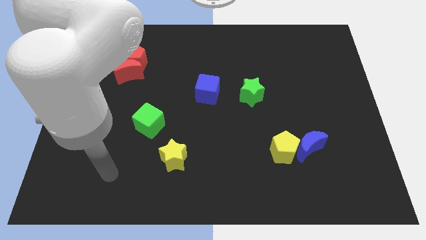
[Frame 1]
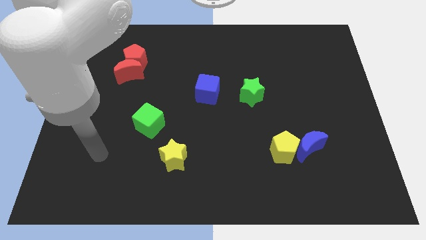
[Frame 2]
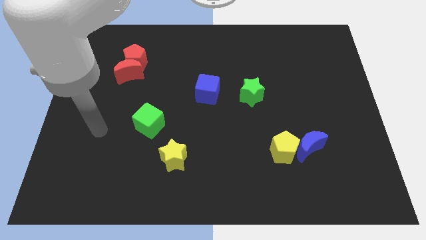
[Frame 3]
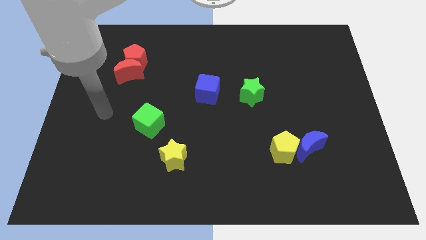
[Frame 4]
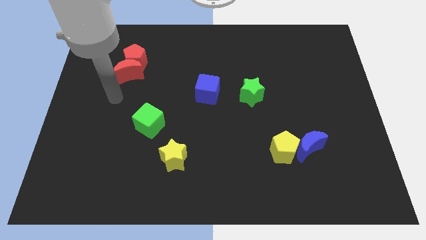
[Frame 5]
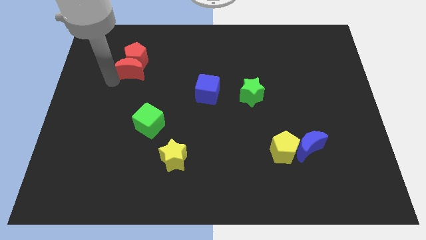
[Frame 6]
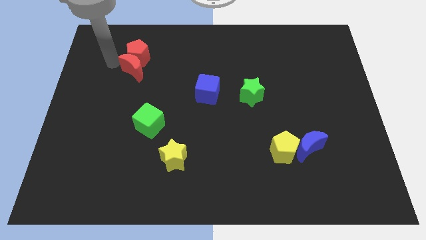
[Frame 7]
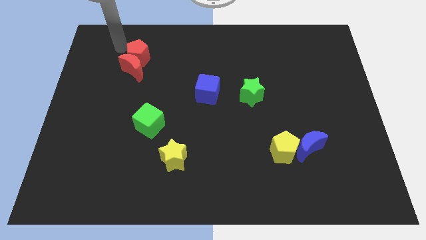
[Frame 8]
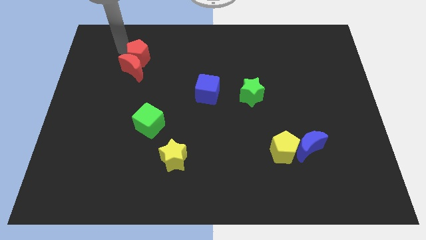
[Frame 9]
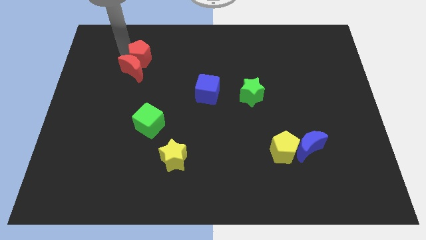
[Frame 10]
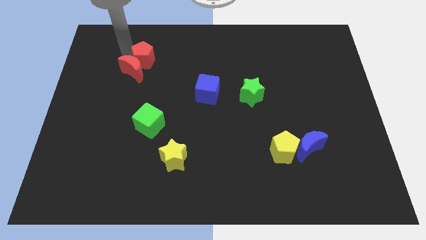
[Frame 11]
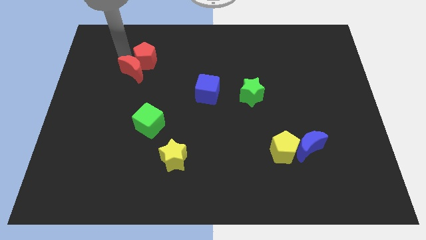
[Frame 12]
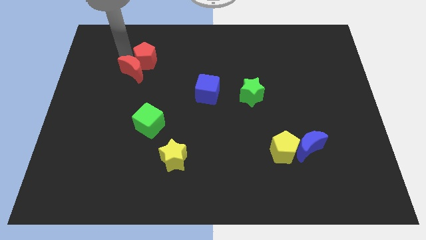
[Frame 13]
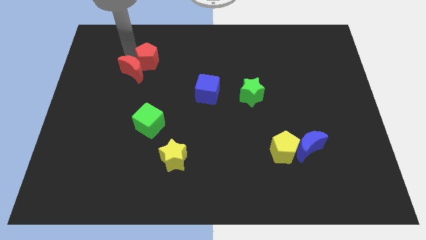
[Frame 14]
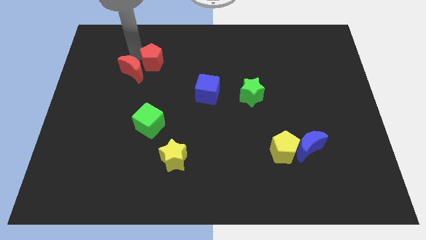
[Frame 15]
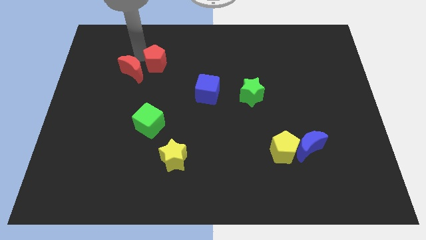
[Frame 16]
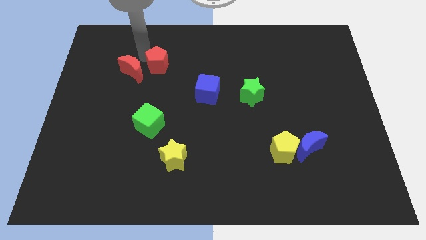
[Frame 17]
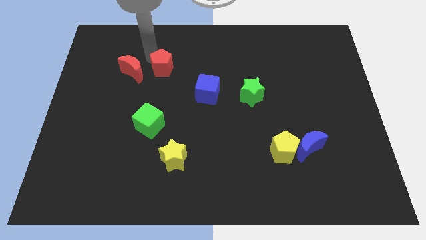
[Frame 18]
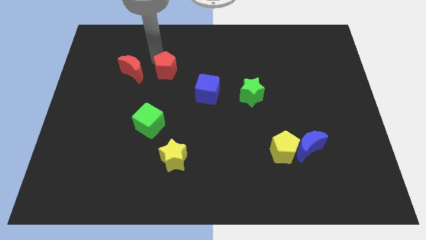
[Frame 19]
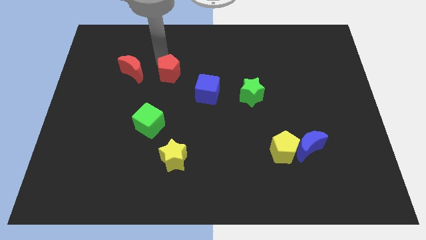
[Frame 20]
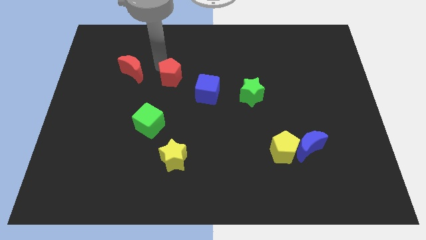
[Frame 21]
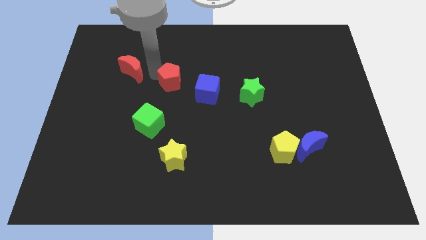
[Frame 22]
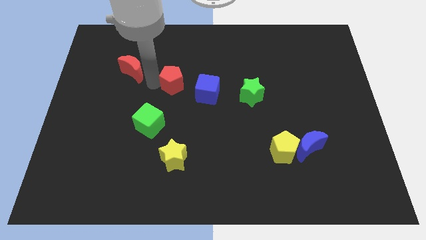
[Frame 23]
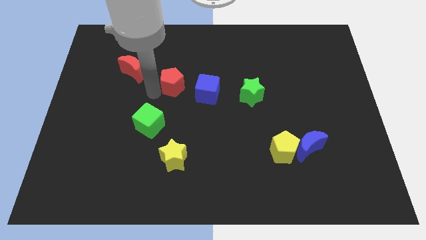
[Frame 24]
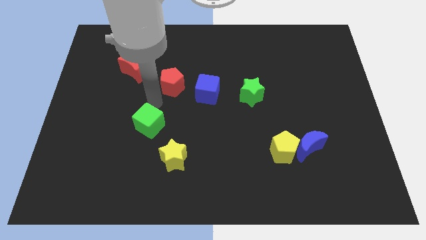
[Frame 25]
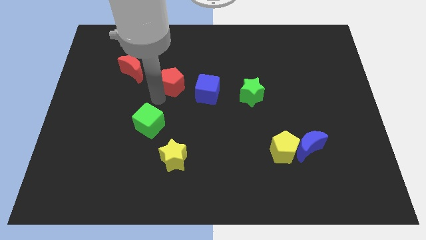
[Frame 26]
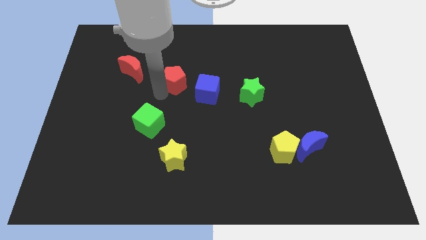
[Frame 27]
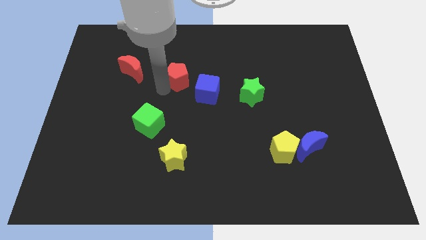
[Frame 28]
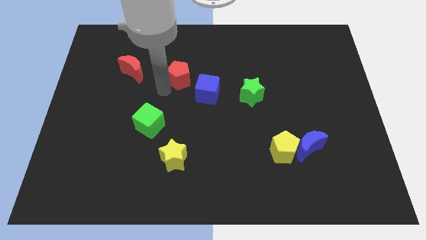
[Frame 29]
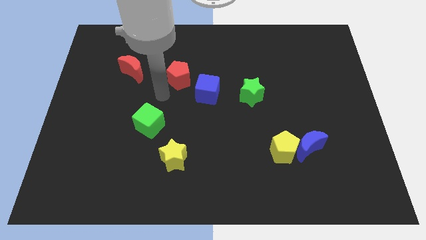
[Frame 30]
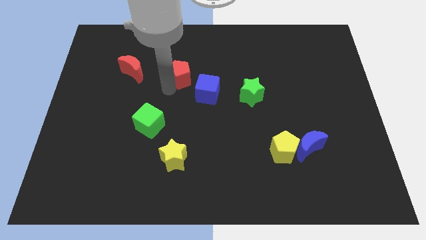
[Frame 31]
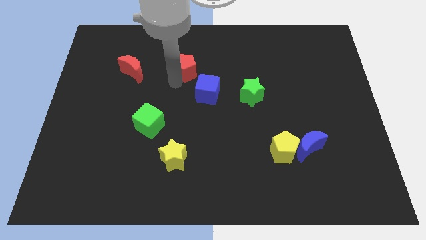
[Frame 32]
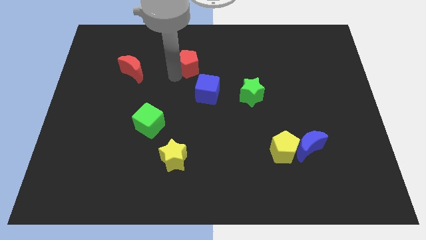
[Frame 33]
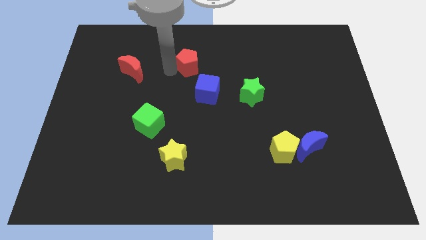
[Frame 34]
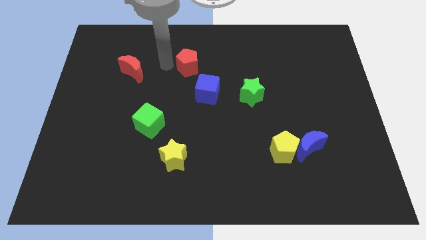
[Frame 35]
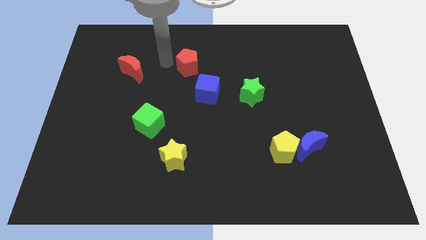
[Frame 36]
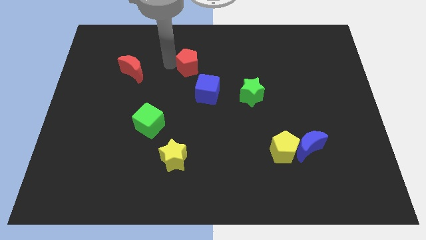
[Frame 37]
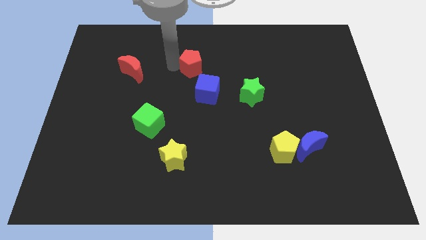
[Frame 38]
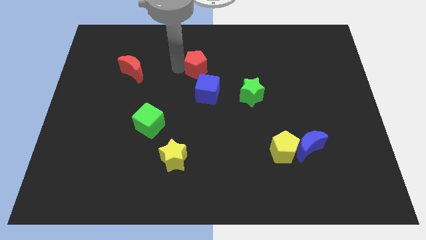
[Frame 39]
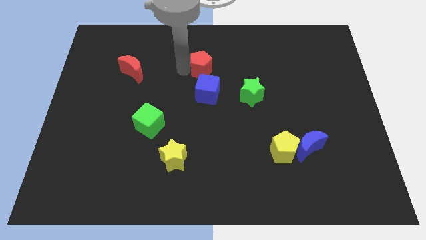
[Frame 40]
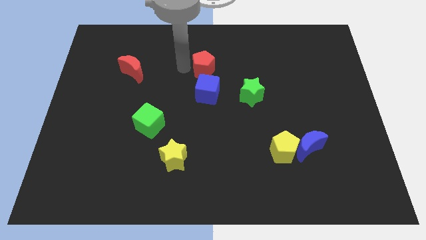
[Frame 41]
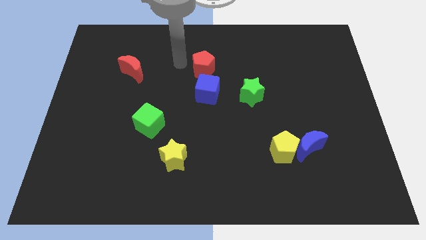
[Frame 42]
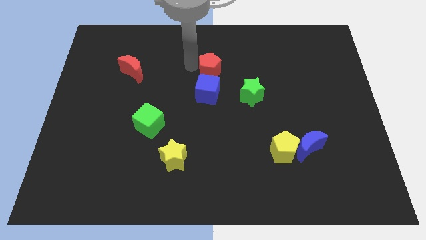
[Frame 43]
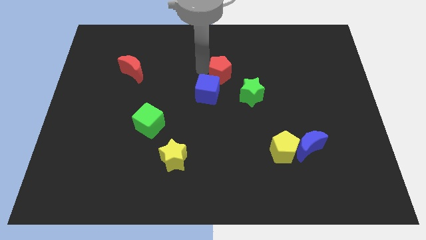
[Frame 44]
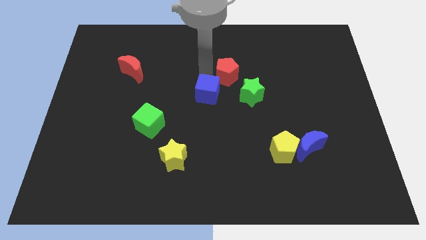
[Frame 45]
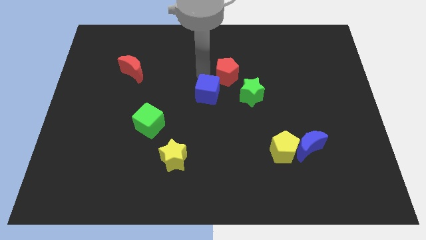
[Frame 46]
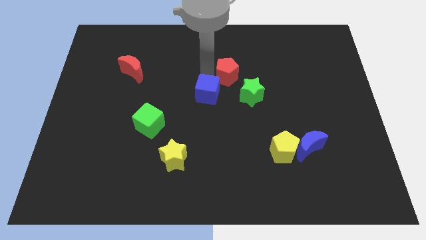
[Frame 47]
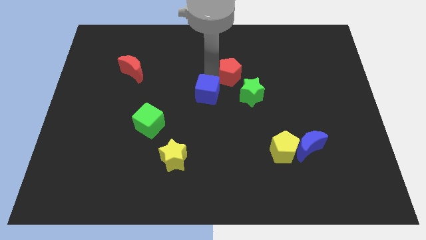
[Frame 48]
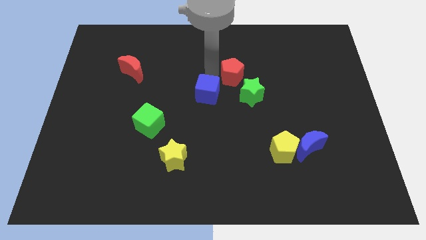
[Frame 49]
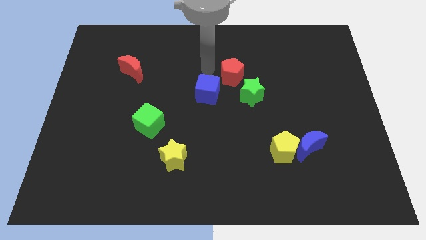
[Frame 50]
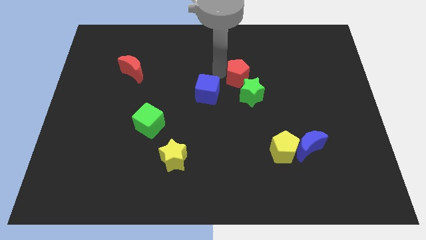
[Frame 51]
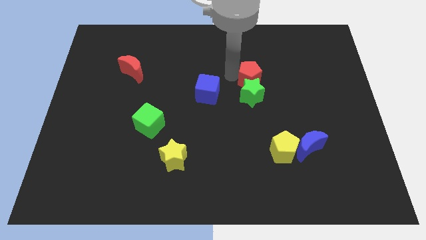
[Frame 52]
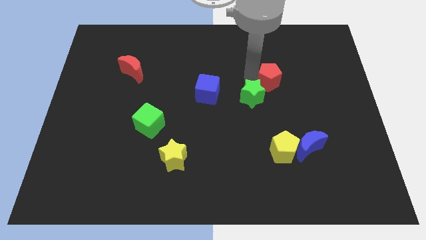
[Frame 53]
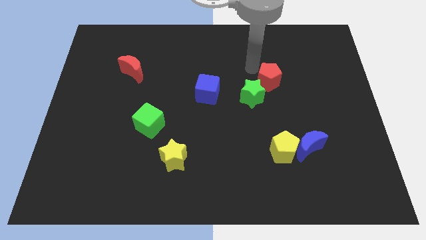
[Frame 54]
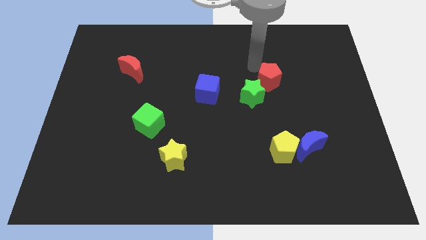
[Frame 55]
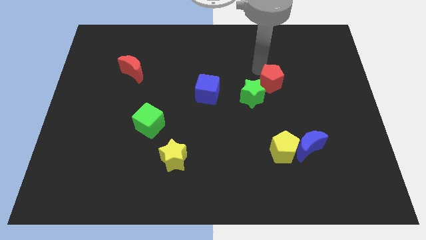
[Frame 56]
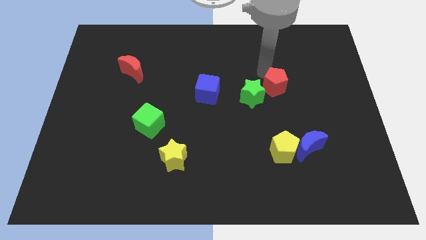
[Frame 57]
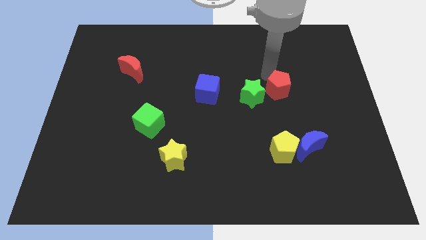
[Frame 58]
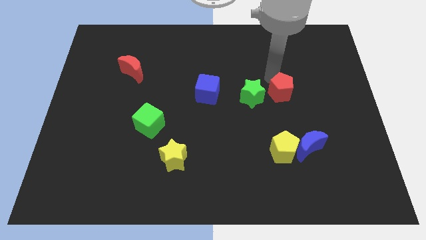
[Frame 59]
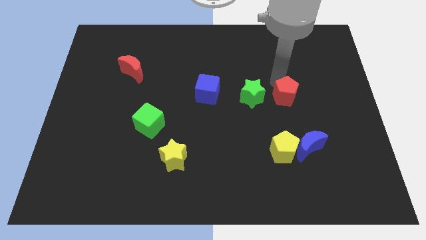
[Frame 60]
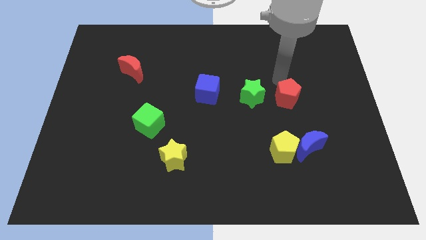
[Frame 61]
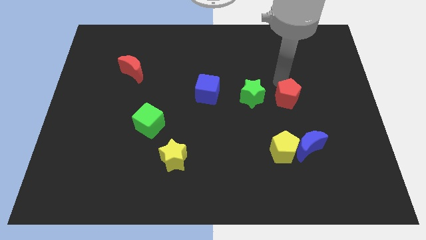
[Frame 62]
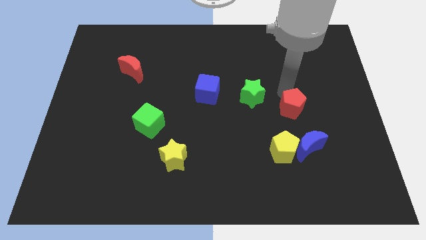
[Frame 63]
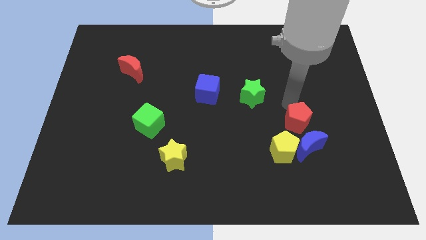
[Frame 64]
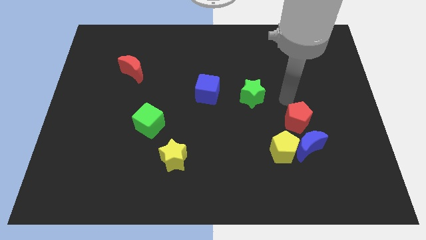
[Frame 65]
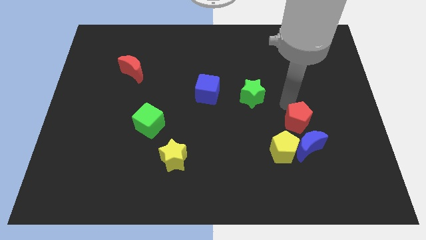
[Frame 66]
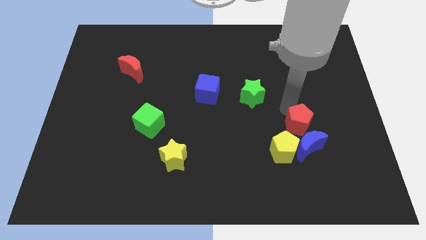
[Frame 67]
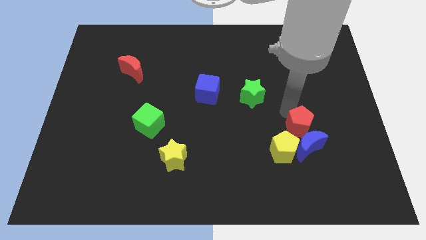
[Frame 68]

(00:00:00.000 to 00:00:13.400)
move the red pentagon towards the blue moon
